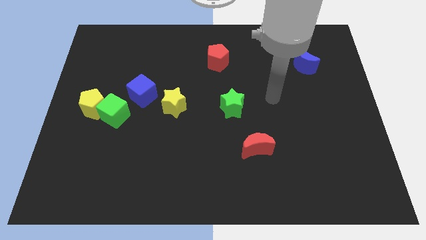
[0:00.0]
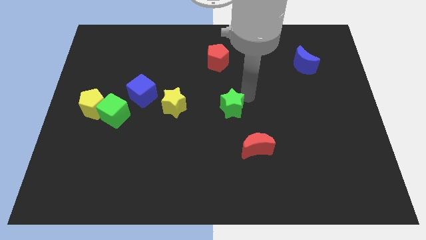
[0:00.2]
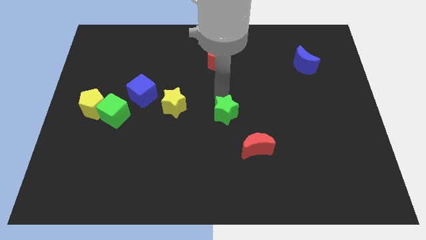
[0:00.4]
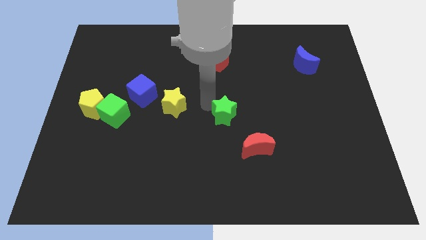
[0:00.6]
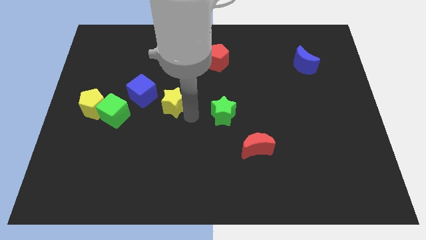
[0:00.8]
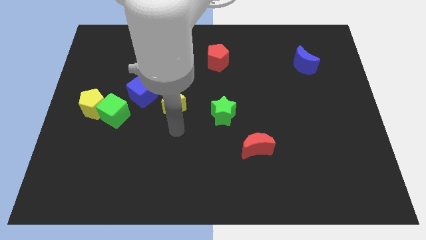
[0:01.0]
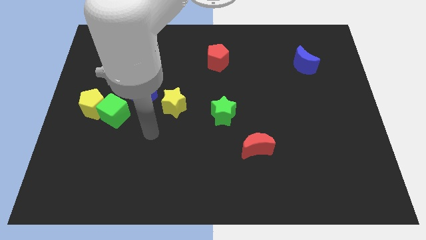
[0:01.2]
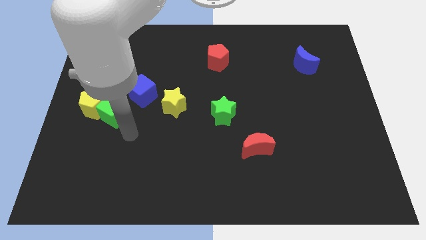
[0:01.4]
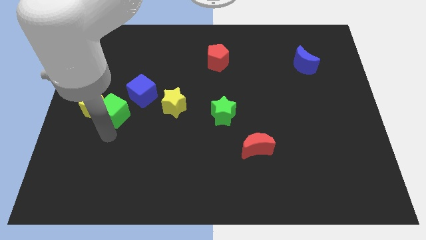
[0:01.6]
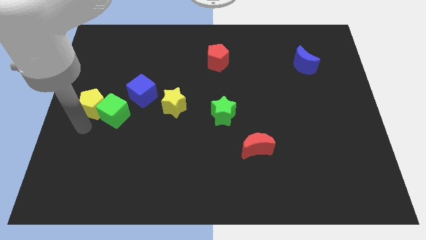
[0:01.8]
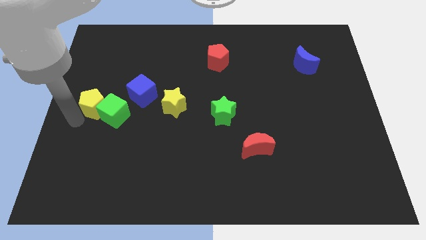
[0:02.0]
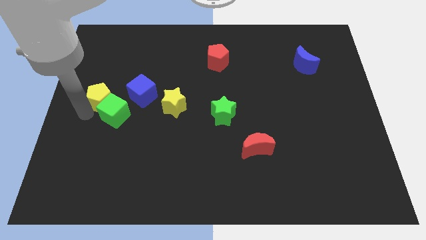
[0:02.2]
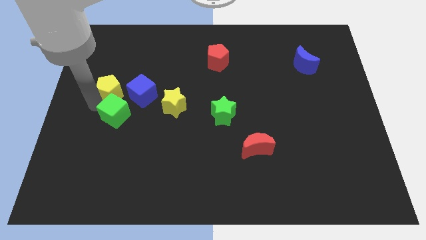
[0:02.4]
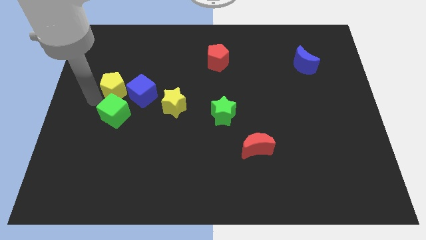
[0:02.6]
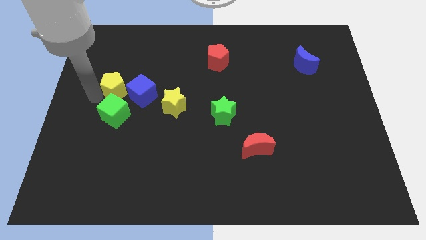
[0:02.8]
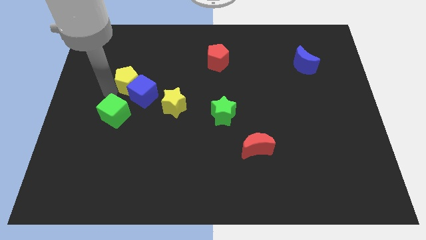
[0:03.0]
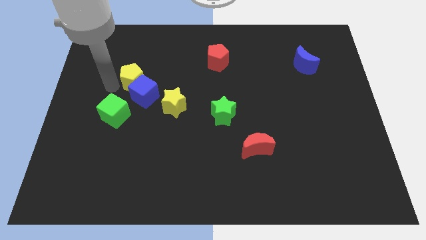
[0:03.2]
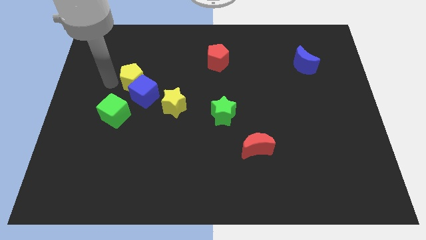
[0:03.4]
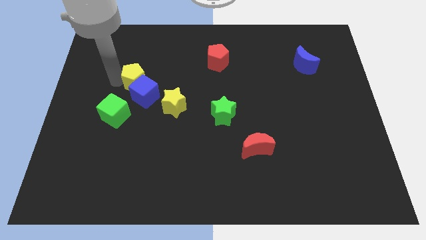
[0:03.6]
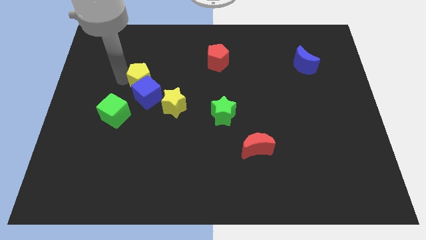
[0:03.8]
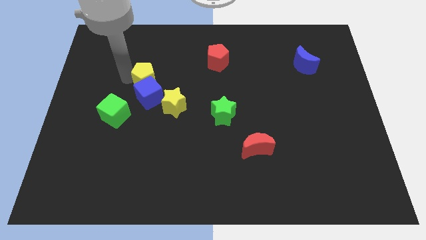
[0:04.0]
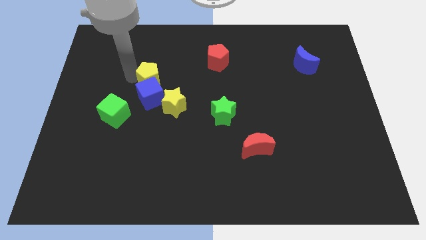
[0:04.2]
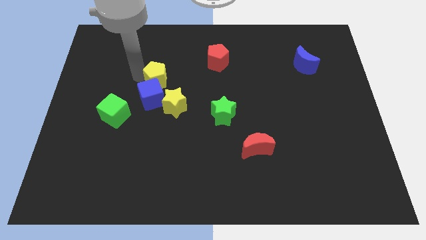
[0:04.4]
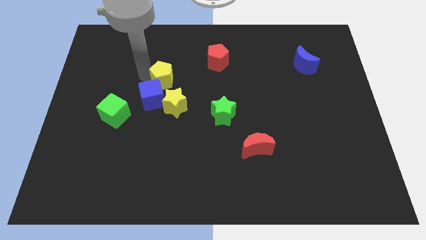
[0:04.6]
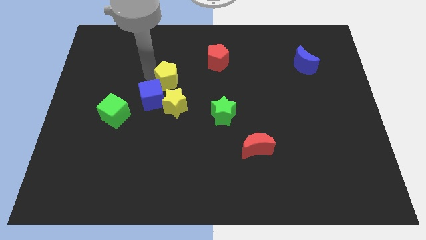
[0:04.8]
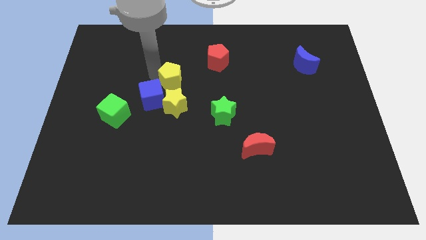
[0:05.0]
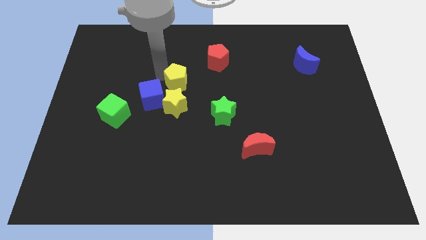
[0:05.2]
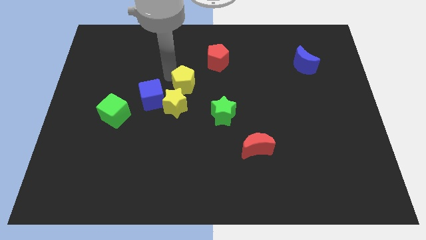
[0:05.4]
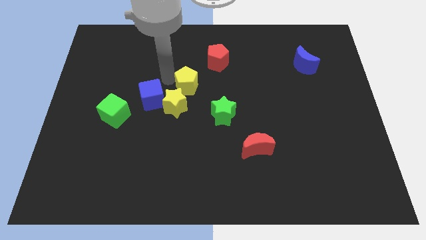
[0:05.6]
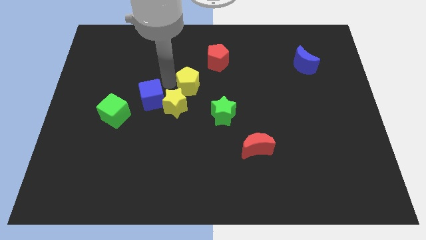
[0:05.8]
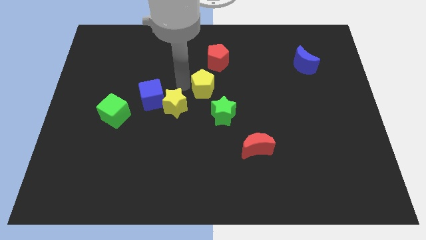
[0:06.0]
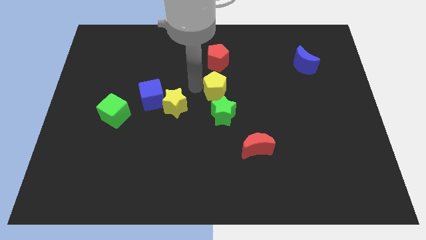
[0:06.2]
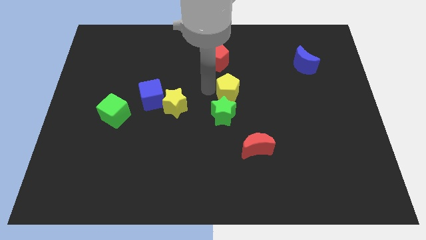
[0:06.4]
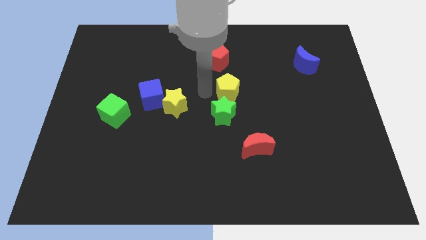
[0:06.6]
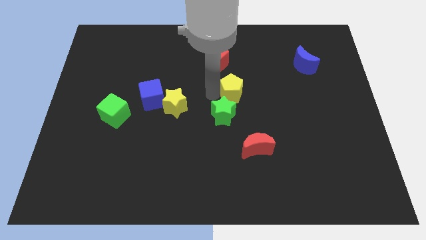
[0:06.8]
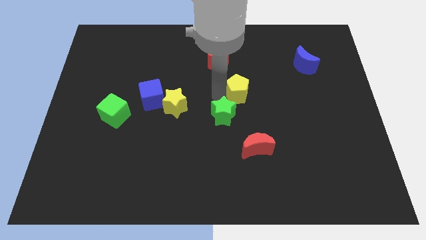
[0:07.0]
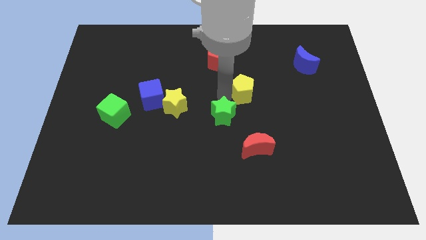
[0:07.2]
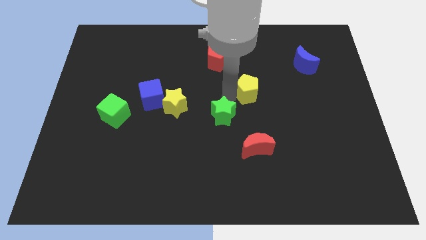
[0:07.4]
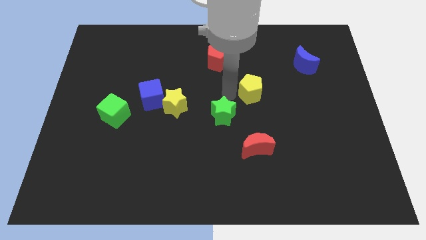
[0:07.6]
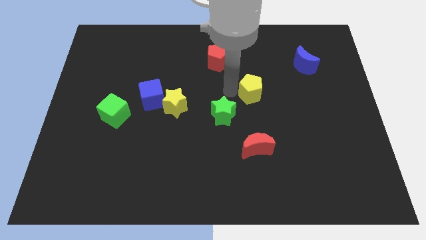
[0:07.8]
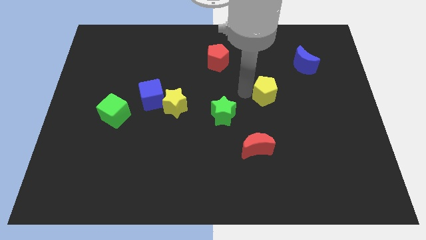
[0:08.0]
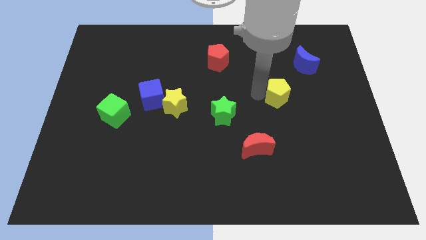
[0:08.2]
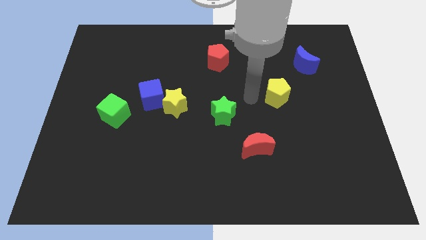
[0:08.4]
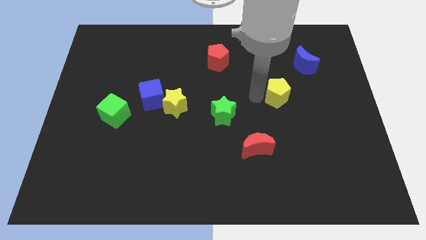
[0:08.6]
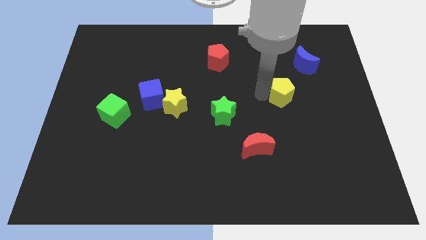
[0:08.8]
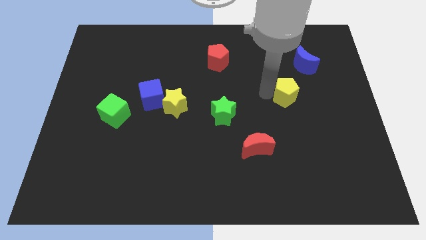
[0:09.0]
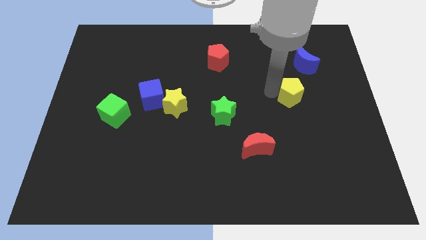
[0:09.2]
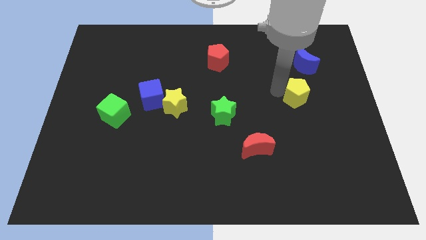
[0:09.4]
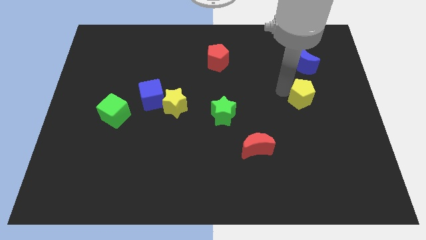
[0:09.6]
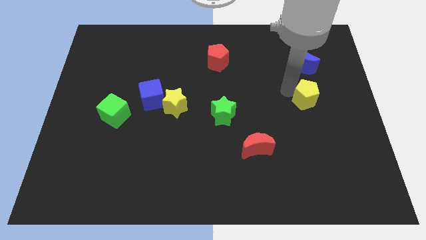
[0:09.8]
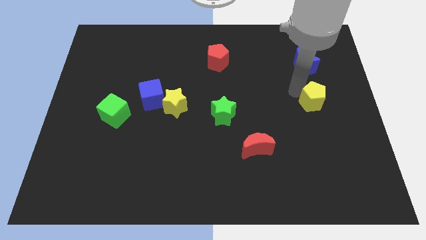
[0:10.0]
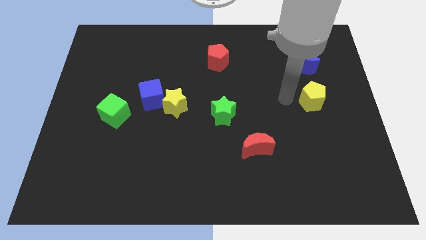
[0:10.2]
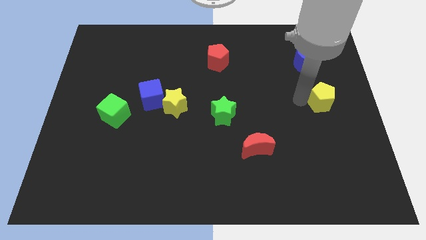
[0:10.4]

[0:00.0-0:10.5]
put the yellow pentagon to the center right

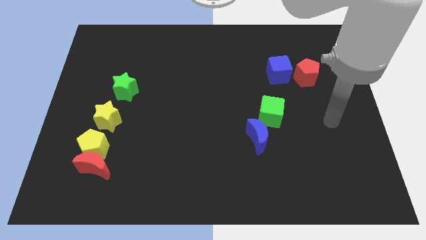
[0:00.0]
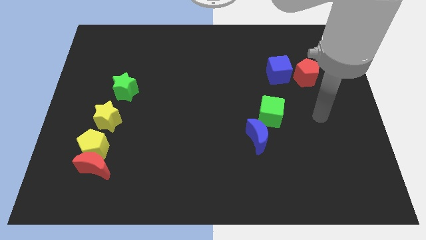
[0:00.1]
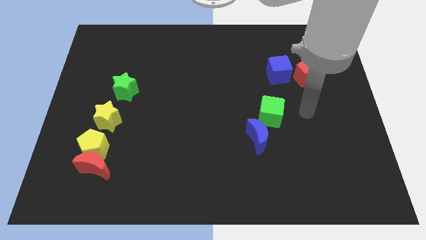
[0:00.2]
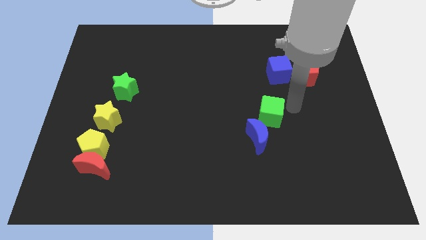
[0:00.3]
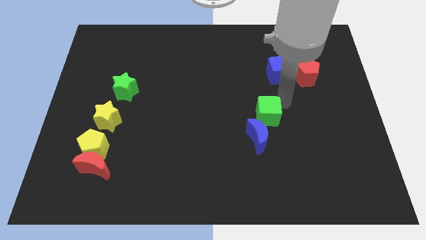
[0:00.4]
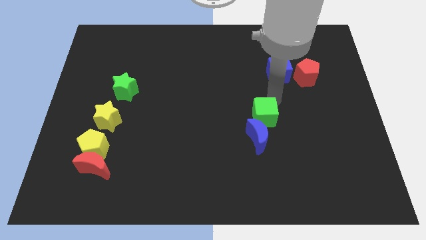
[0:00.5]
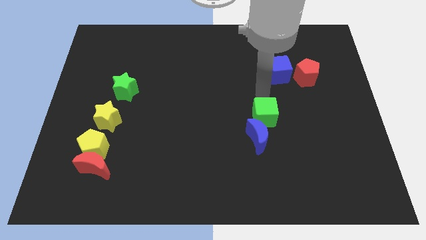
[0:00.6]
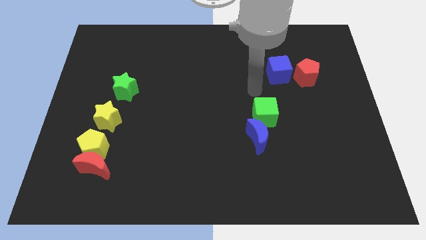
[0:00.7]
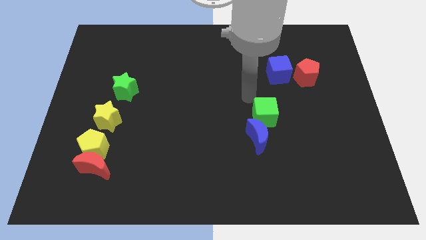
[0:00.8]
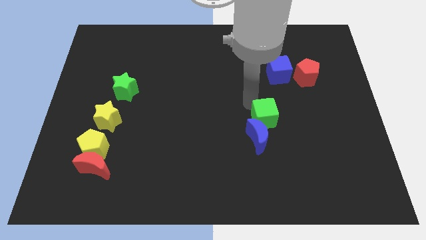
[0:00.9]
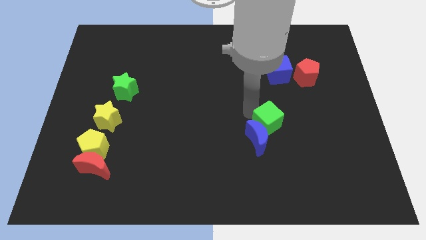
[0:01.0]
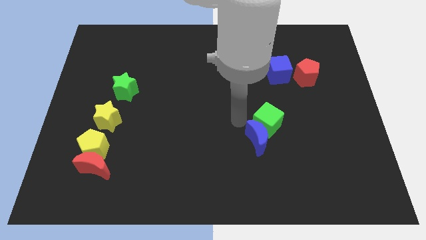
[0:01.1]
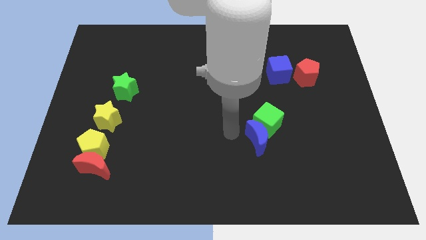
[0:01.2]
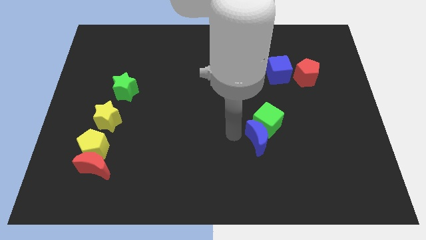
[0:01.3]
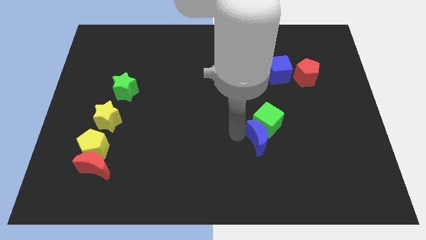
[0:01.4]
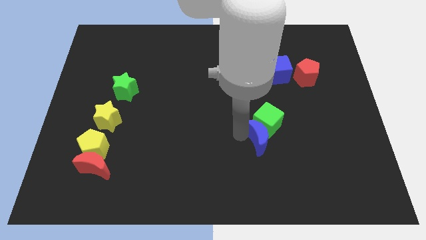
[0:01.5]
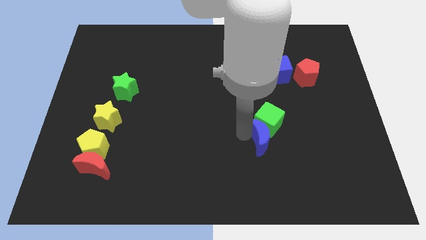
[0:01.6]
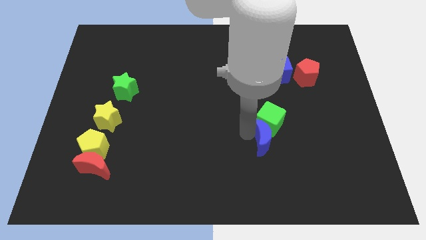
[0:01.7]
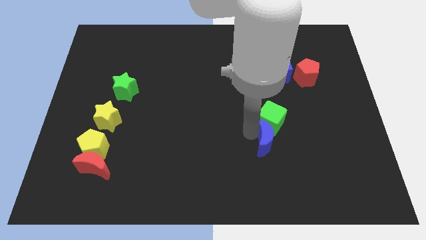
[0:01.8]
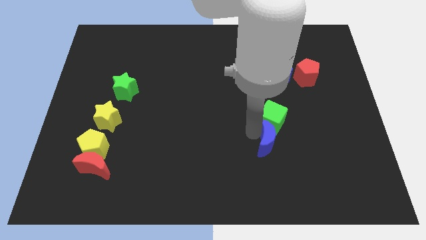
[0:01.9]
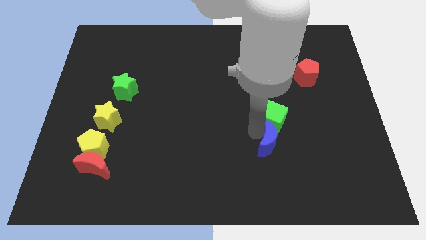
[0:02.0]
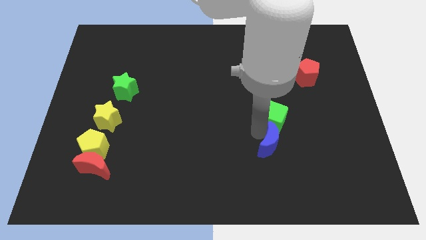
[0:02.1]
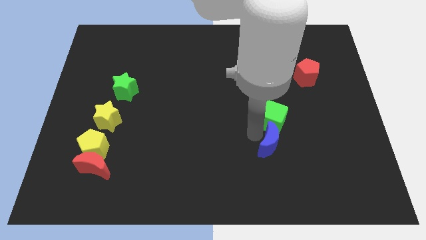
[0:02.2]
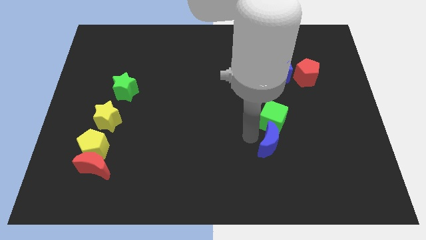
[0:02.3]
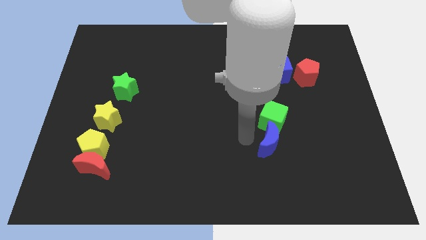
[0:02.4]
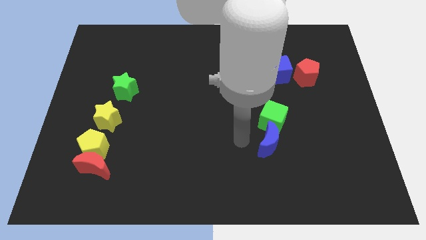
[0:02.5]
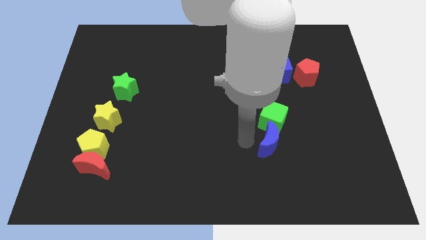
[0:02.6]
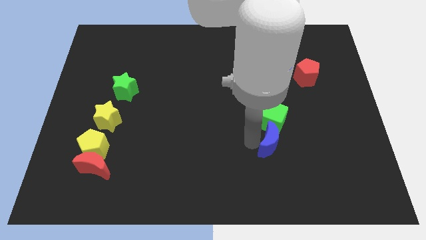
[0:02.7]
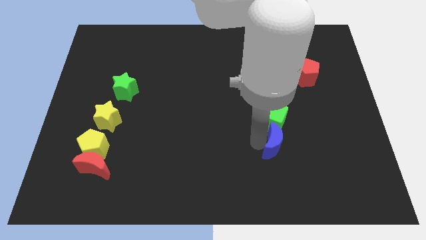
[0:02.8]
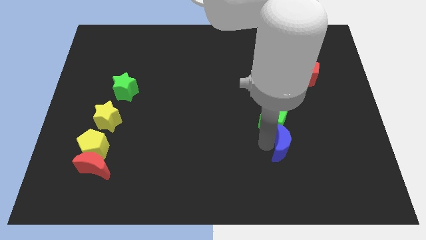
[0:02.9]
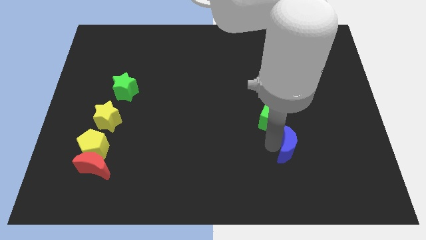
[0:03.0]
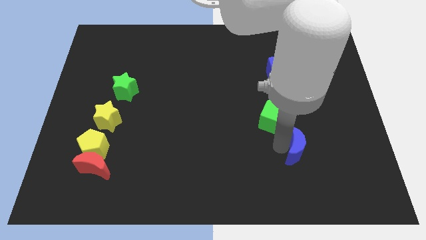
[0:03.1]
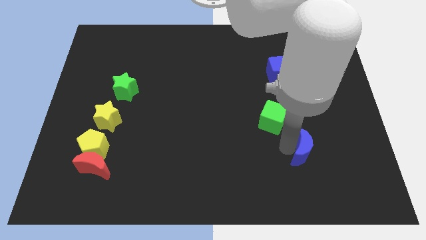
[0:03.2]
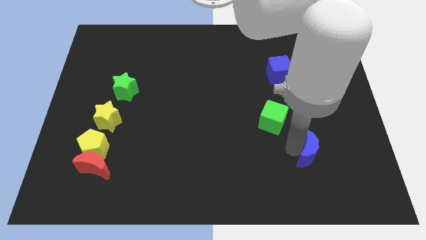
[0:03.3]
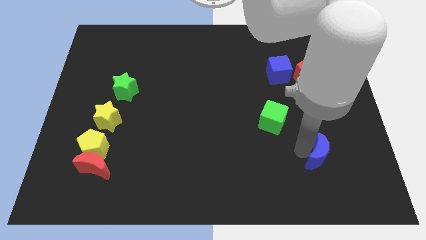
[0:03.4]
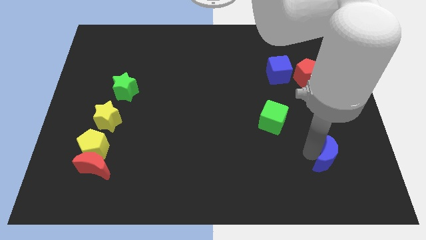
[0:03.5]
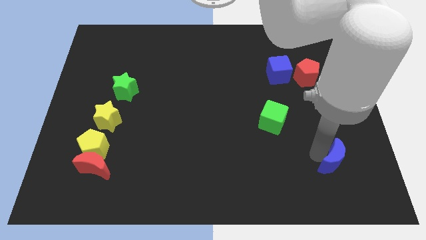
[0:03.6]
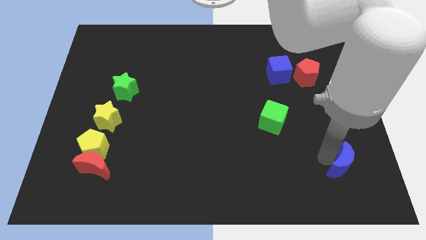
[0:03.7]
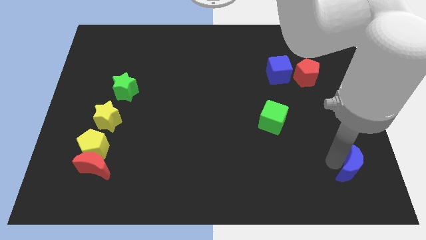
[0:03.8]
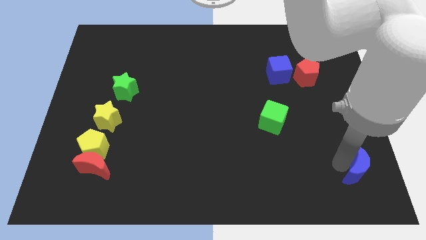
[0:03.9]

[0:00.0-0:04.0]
move the blue moon to the bottom right
